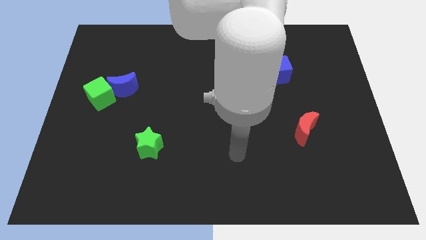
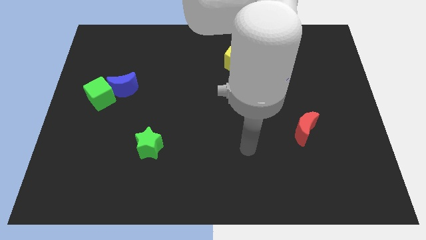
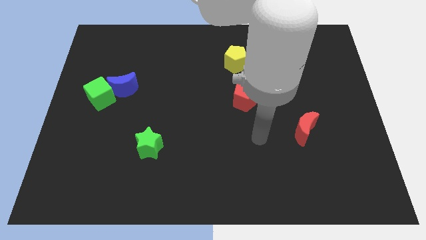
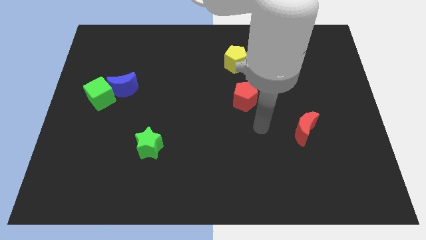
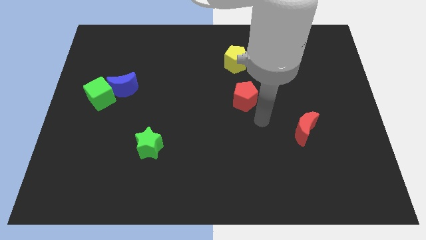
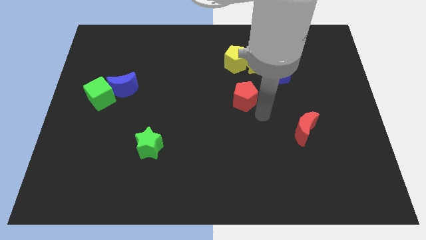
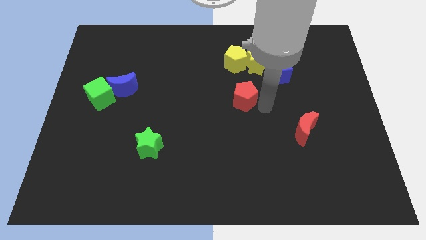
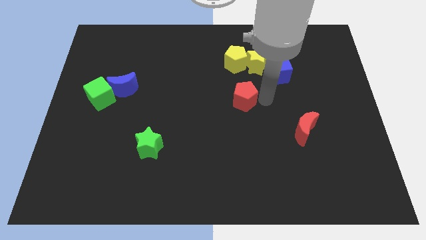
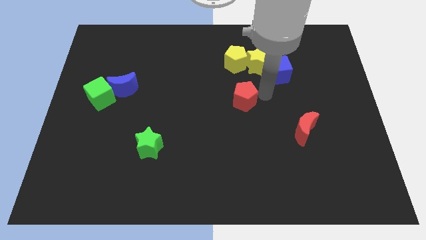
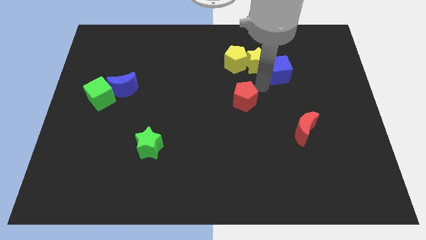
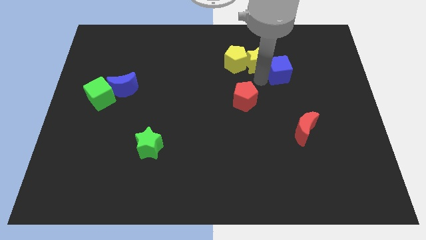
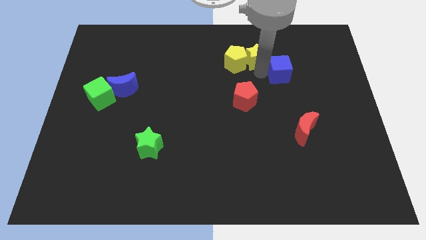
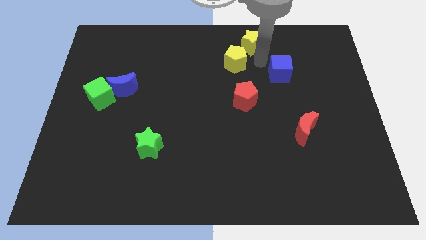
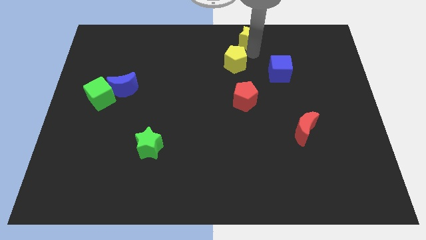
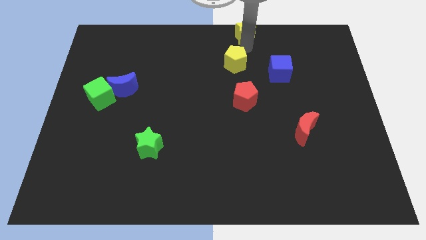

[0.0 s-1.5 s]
move the yellow pentagon away from the yellow star

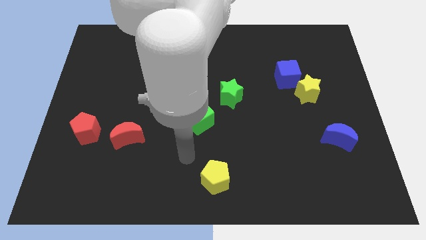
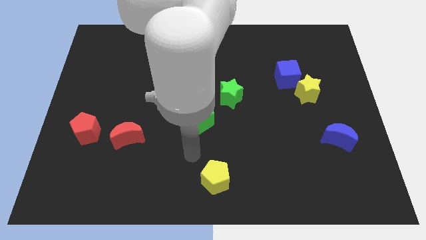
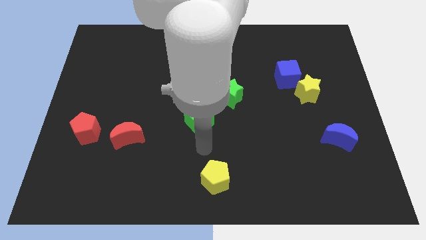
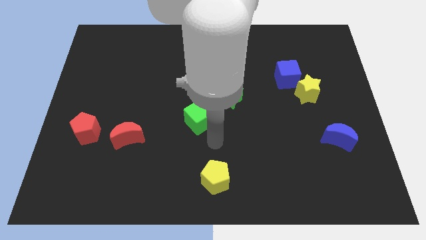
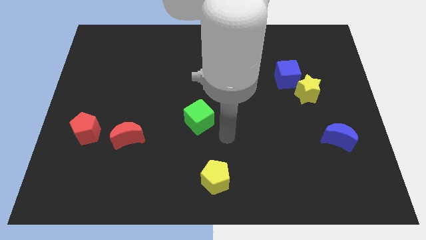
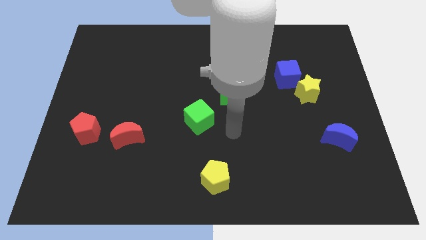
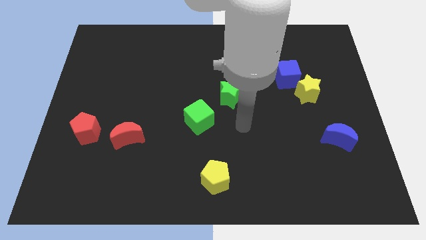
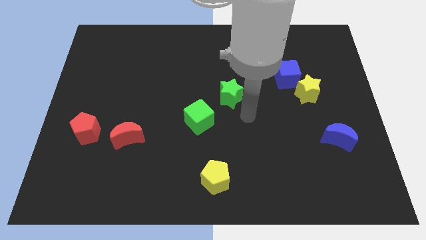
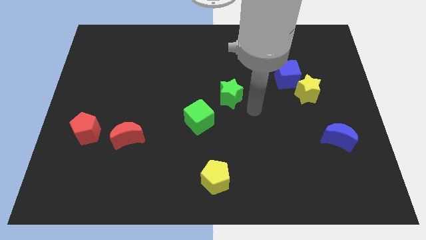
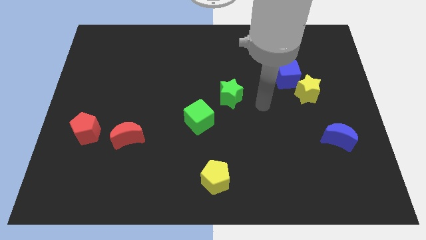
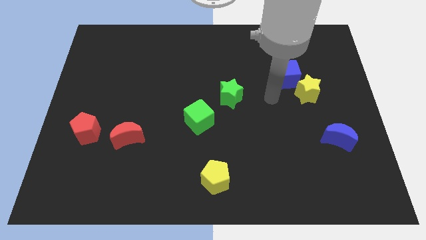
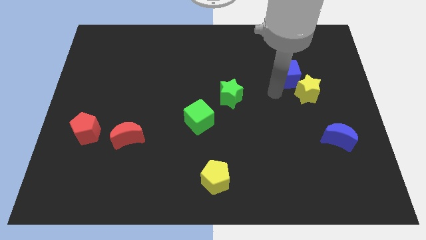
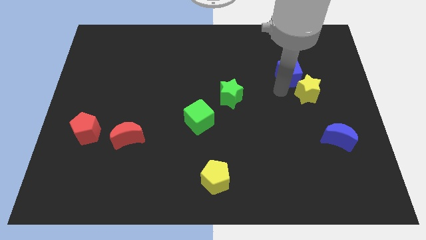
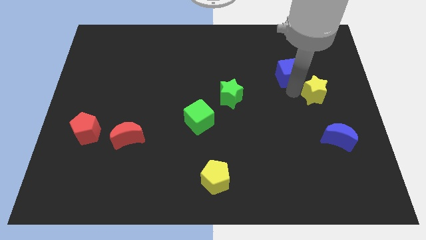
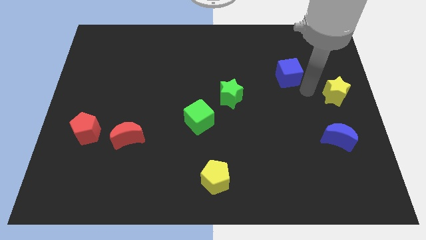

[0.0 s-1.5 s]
move the blue cube away from the yellow star

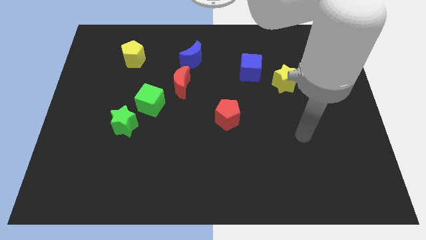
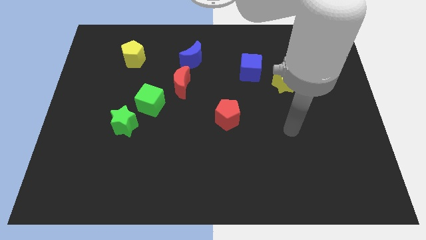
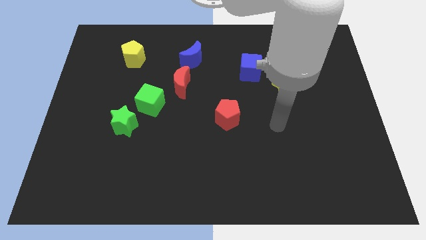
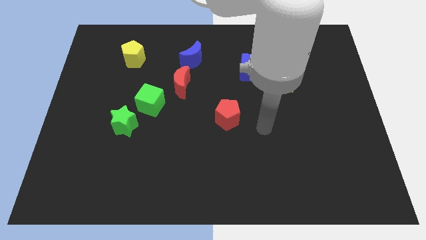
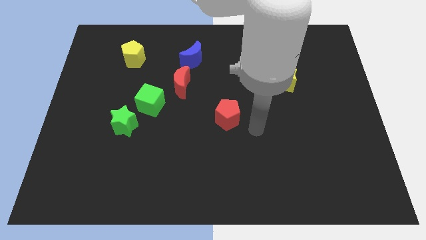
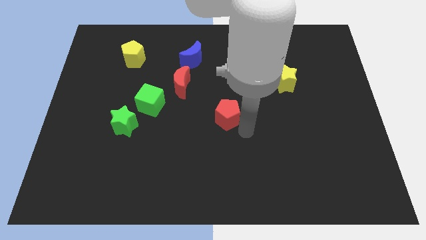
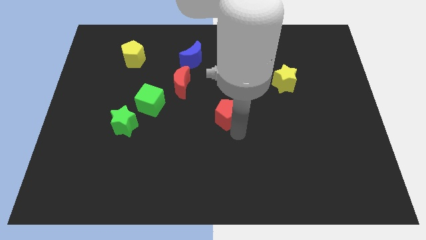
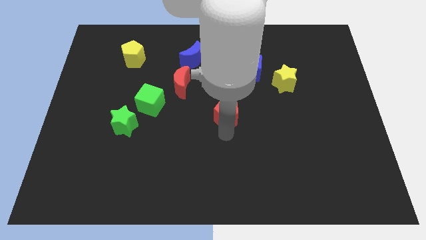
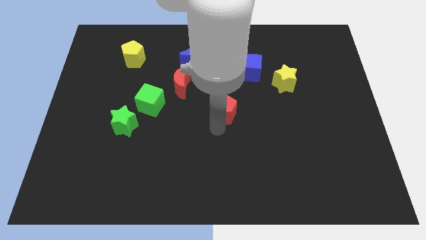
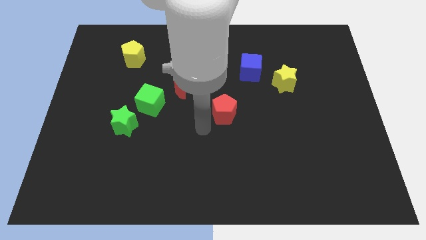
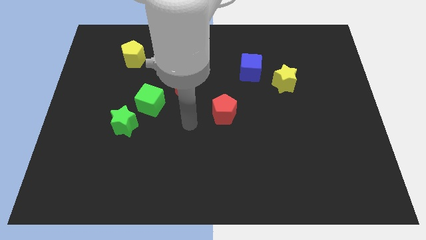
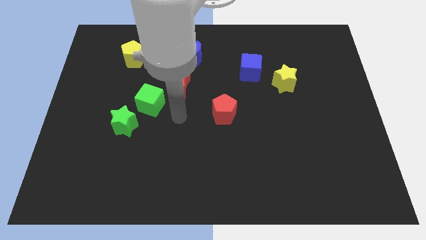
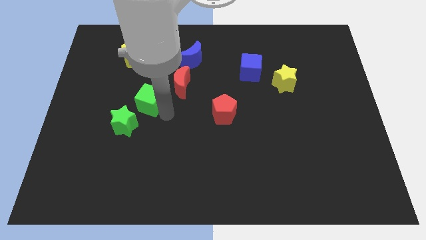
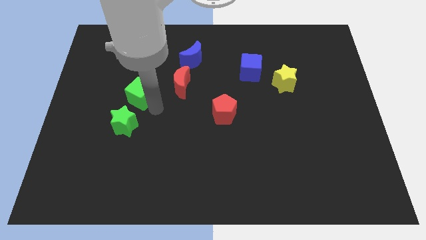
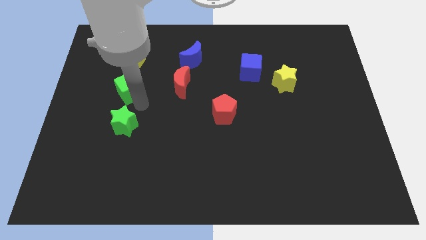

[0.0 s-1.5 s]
move the green star away from the green cube

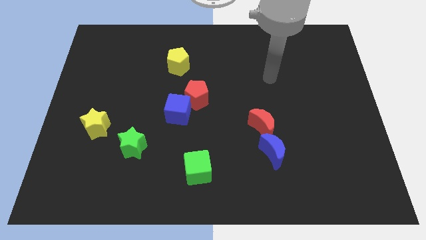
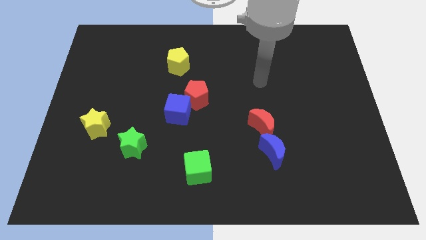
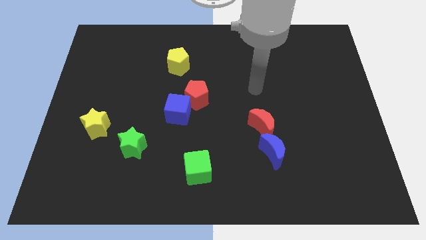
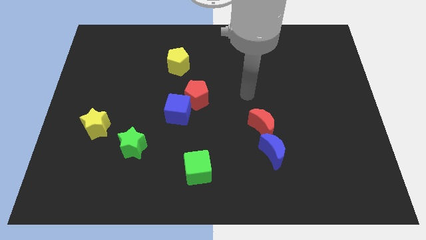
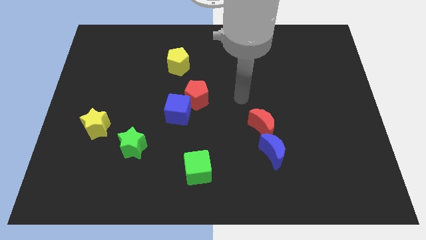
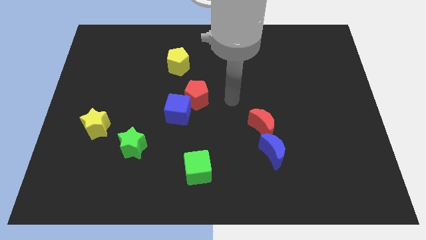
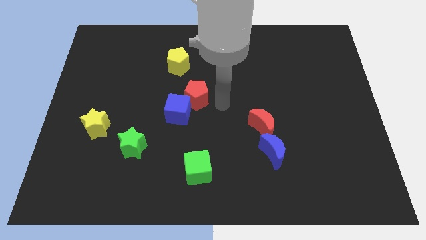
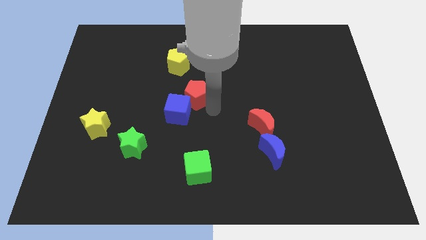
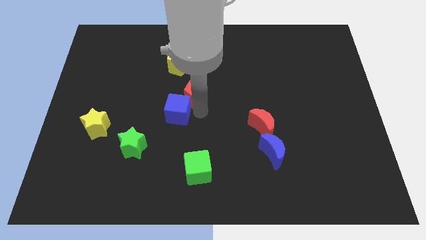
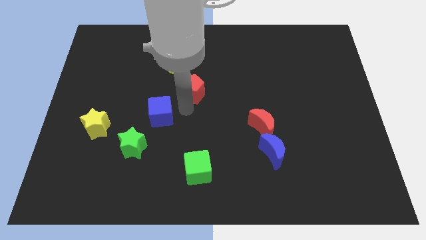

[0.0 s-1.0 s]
separate the red pentagon from the blue cube

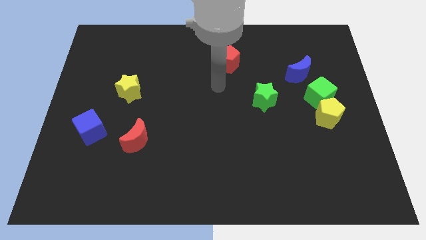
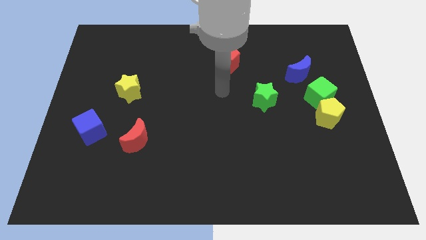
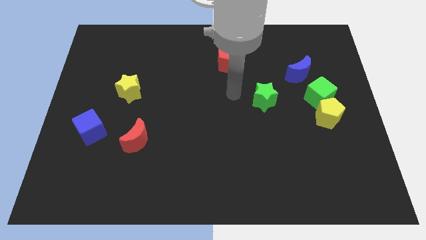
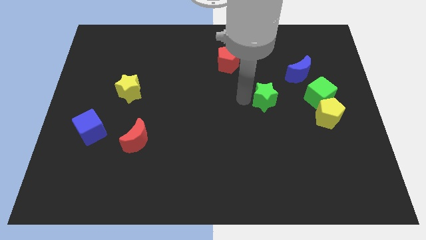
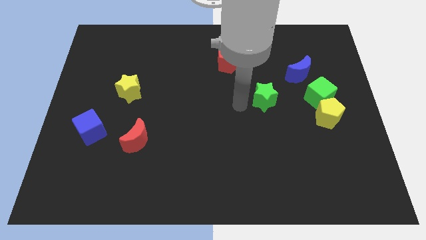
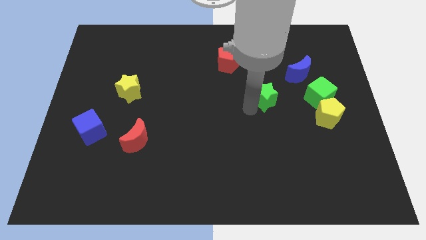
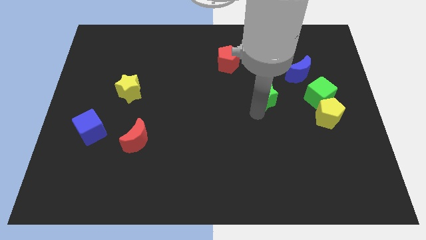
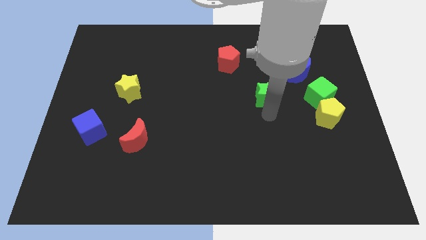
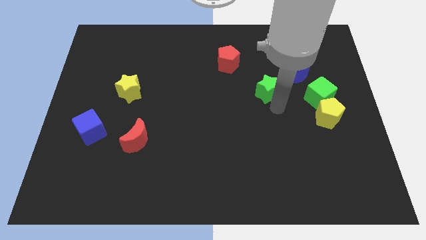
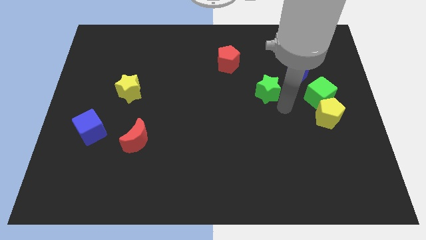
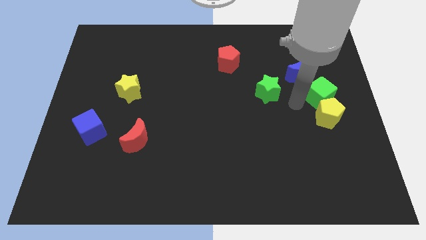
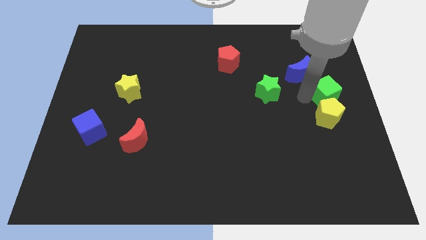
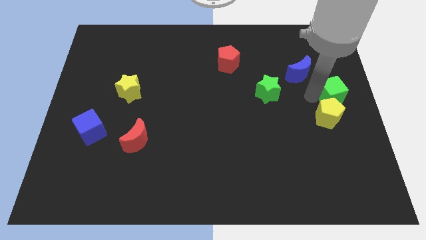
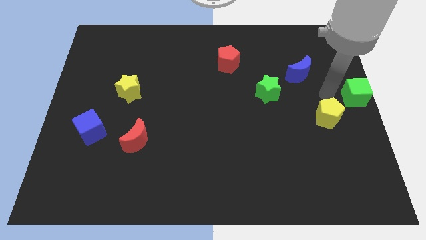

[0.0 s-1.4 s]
pull the yellow pentagon apart from the green cube

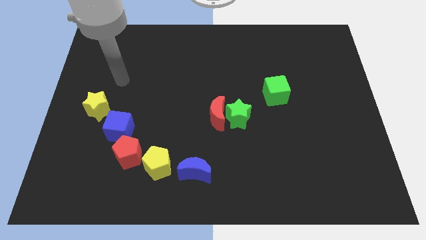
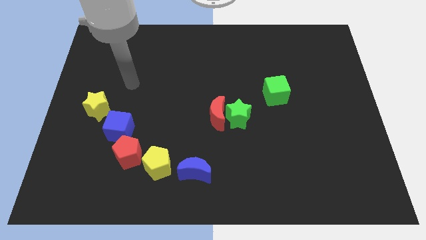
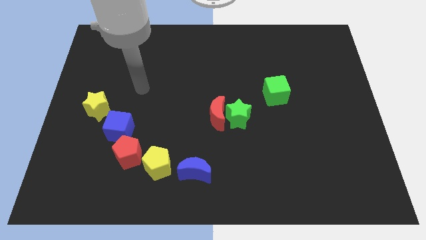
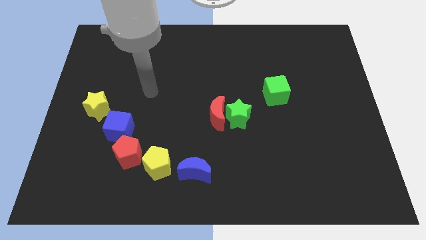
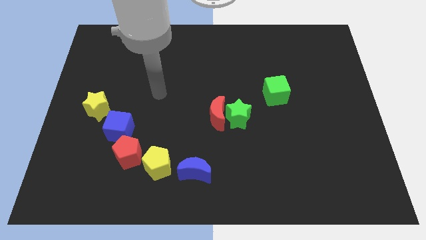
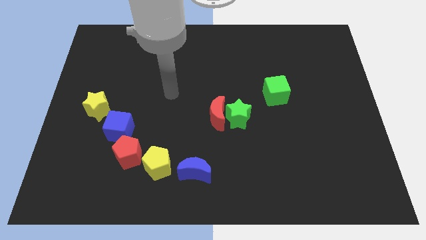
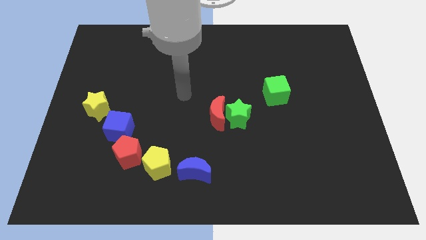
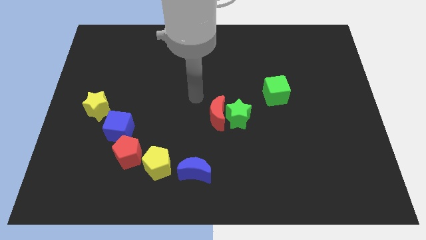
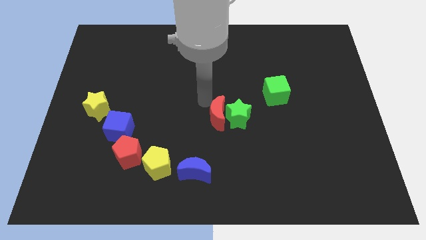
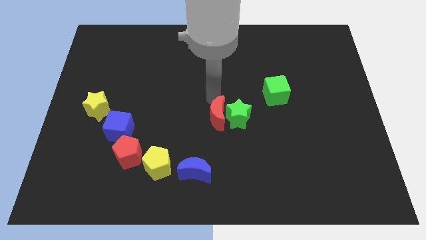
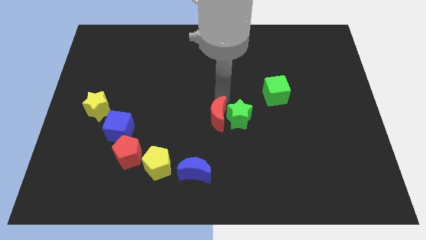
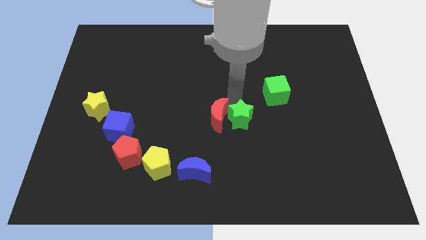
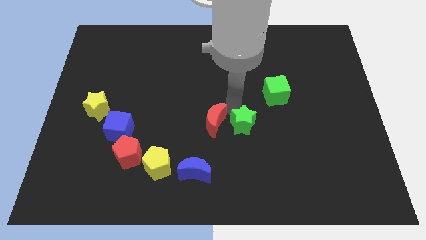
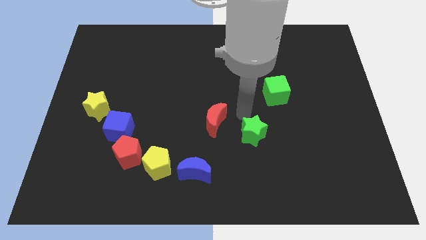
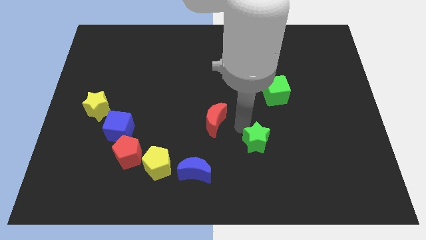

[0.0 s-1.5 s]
pull the red moon apart from the green star

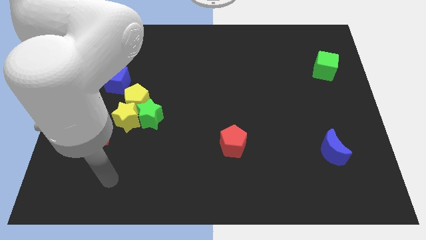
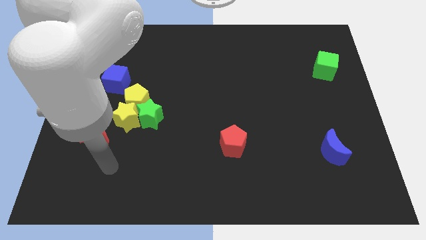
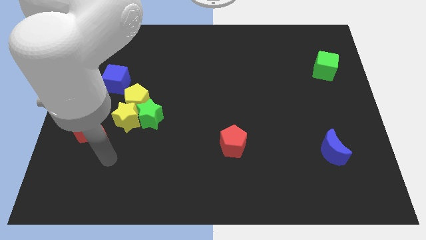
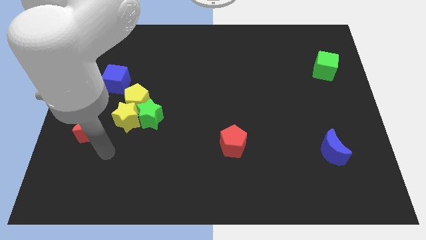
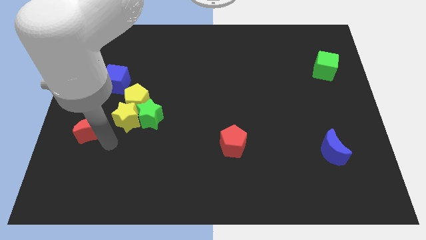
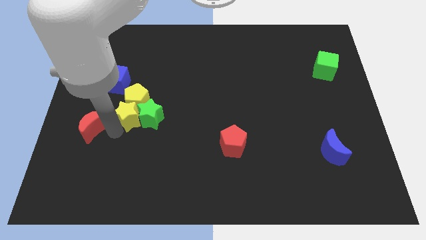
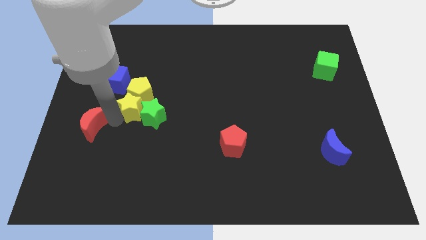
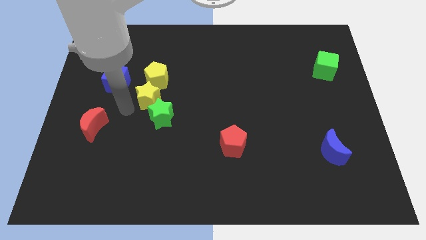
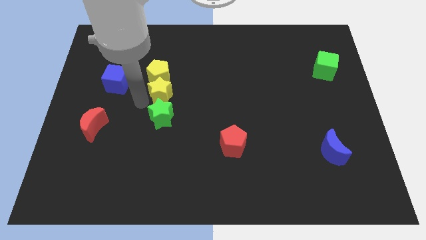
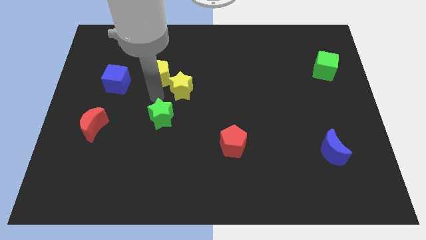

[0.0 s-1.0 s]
move the green star away from the yellow star and yellow pentagon

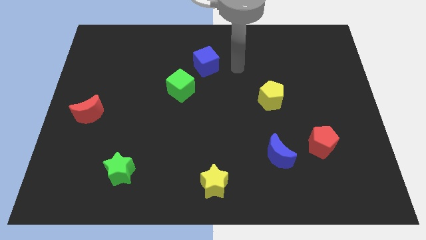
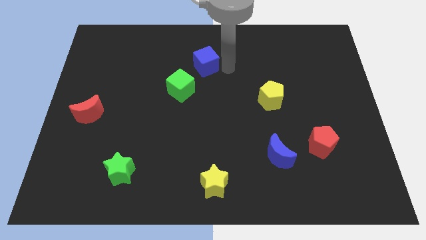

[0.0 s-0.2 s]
move the blue cube away from the green cube
